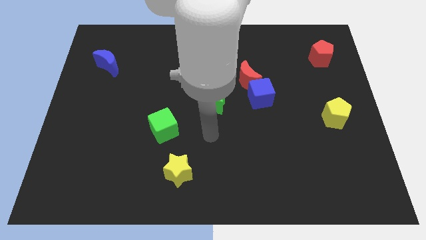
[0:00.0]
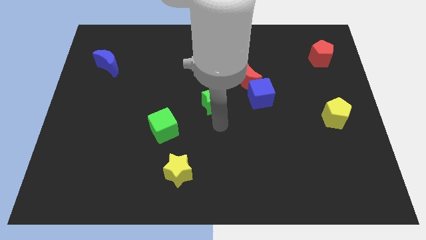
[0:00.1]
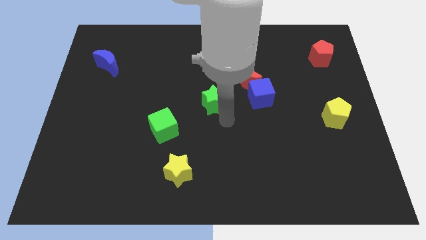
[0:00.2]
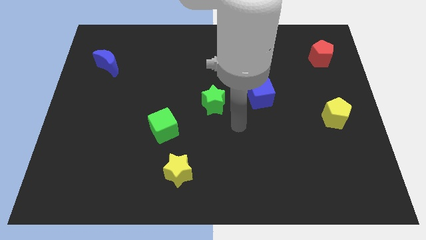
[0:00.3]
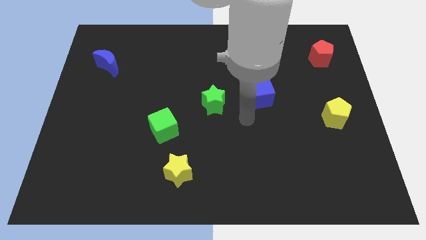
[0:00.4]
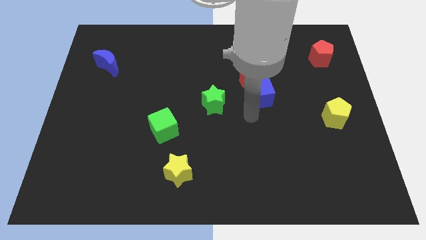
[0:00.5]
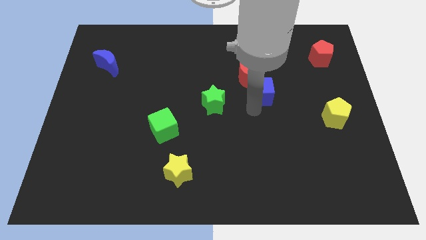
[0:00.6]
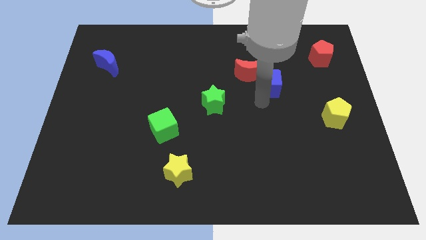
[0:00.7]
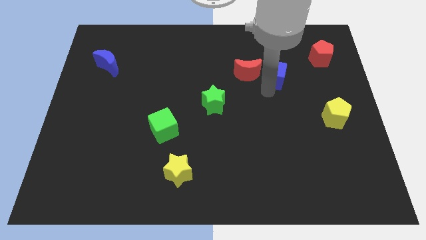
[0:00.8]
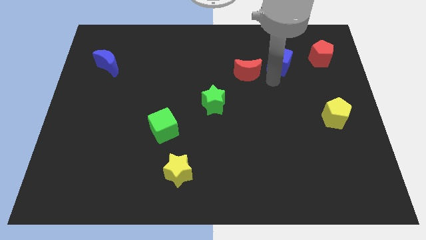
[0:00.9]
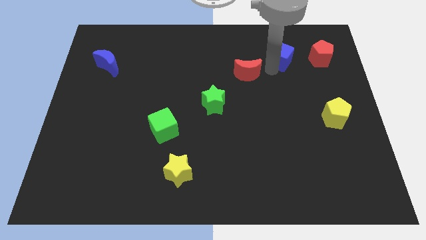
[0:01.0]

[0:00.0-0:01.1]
move the red moon away from the blue cube

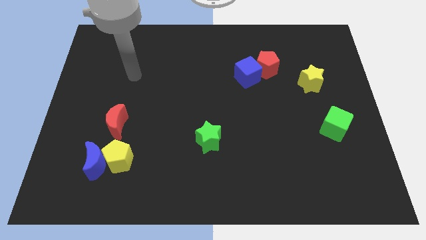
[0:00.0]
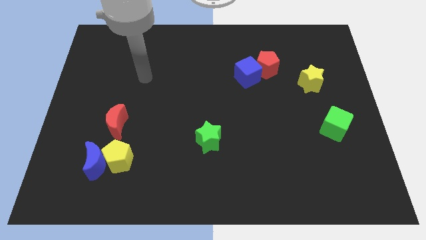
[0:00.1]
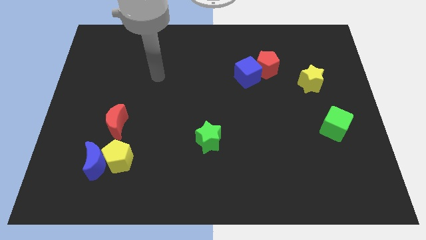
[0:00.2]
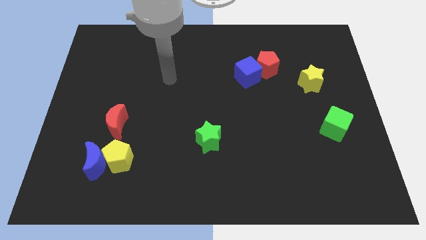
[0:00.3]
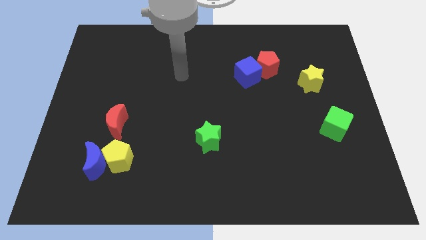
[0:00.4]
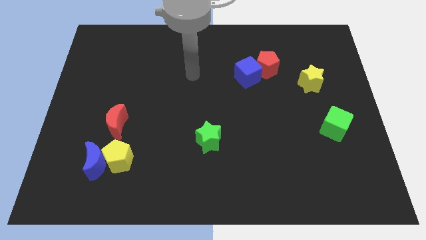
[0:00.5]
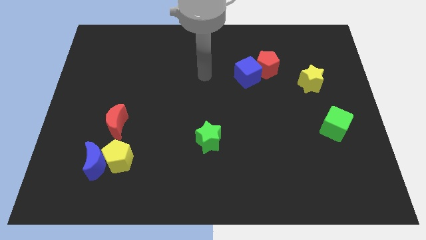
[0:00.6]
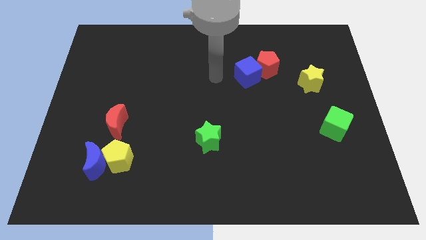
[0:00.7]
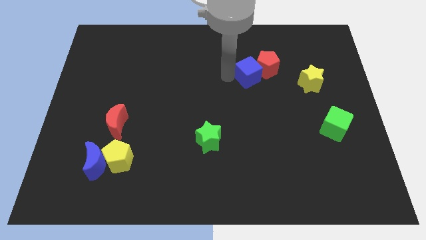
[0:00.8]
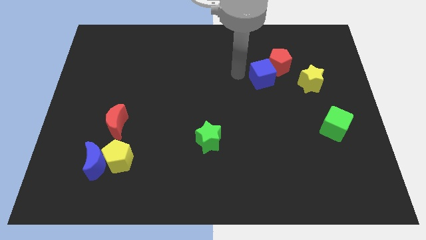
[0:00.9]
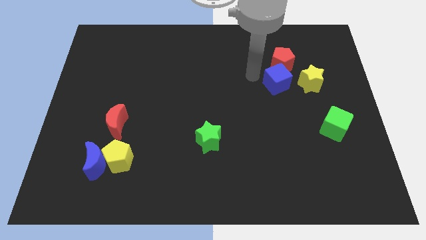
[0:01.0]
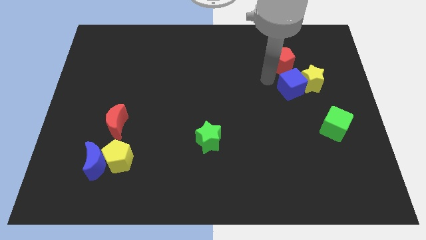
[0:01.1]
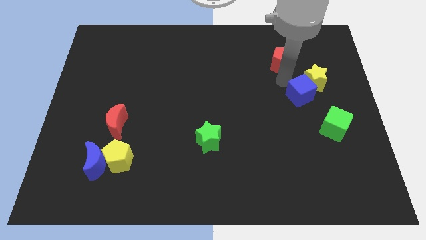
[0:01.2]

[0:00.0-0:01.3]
separate the red pentagon from the blue cube

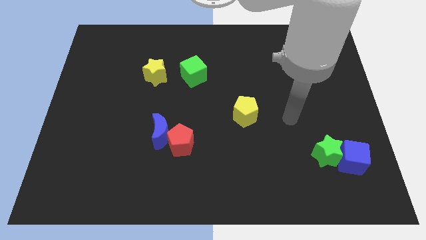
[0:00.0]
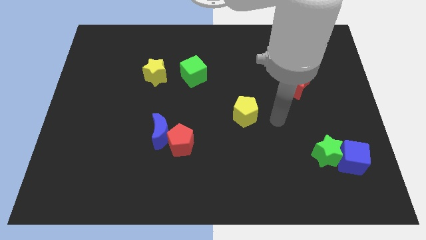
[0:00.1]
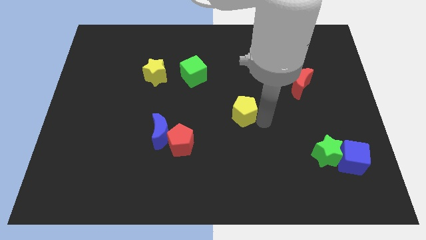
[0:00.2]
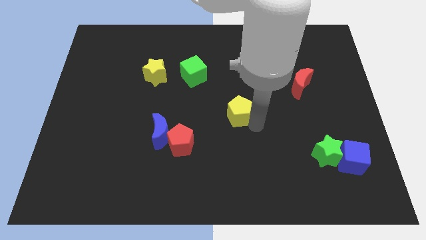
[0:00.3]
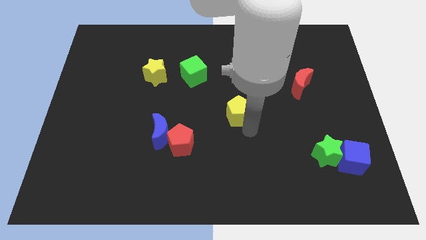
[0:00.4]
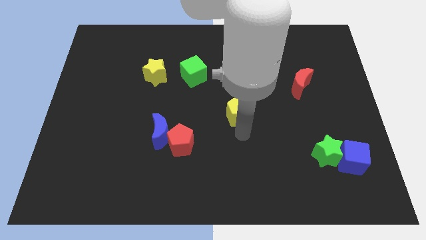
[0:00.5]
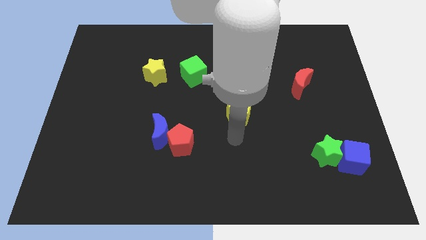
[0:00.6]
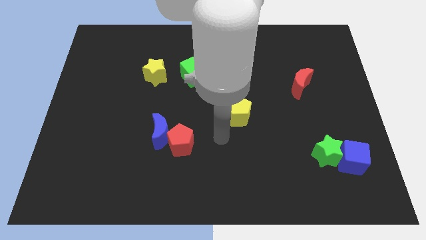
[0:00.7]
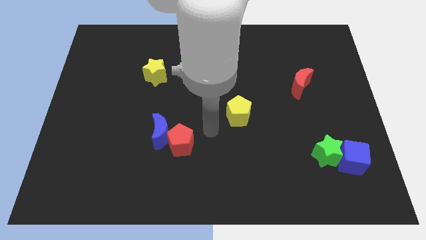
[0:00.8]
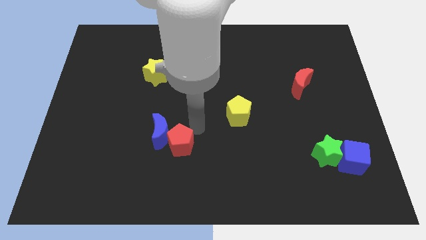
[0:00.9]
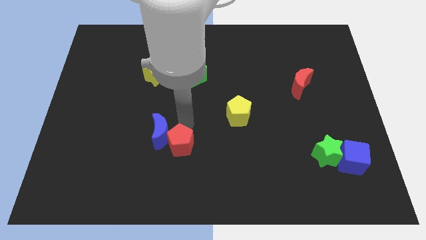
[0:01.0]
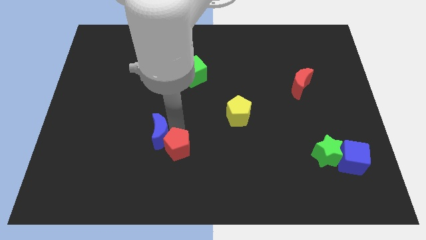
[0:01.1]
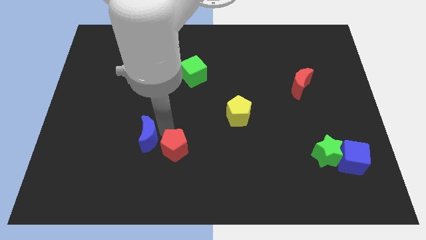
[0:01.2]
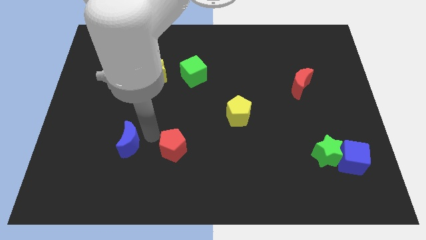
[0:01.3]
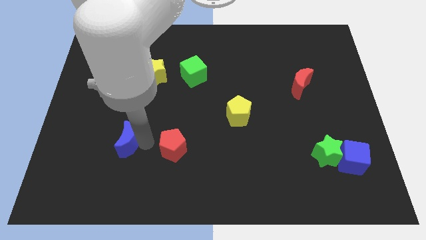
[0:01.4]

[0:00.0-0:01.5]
separate the red pentagon from the blue moon

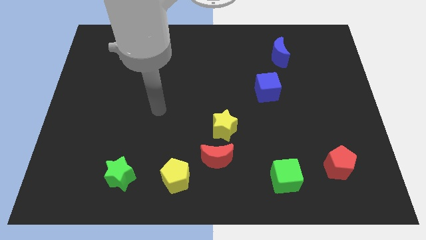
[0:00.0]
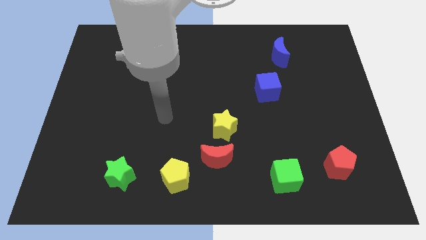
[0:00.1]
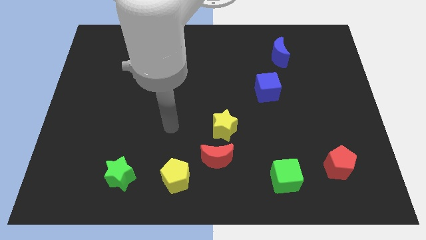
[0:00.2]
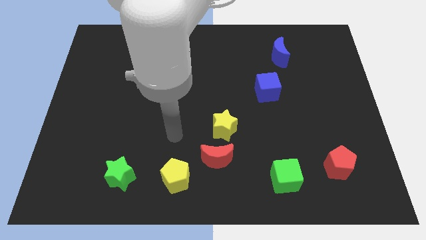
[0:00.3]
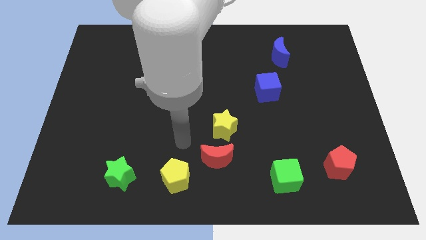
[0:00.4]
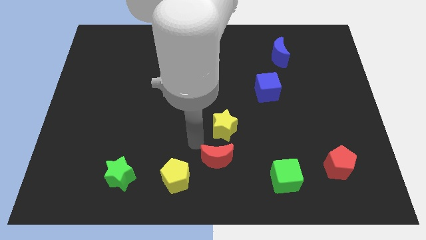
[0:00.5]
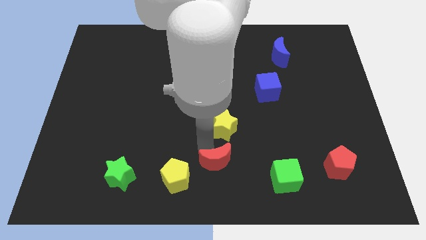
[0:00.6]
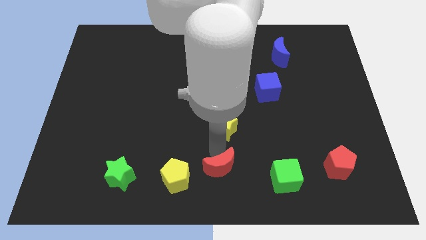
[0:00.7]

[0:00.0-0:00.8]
move the yellow star away from the red moon

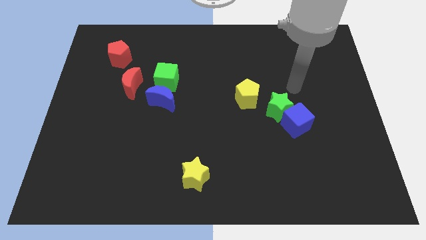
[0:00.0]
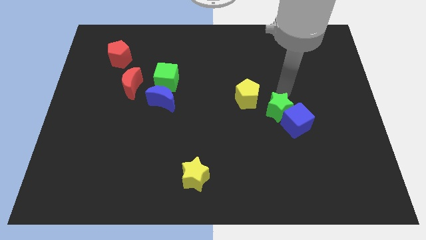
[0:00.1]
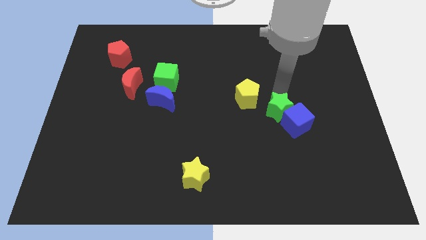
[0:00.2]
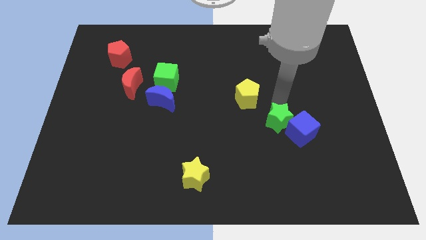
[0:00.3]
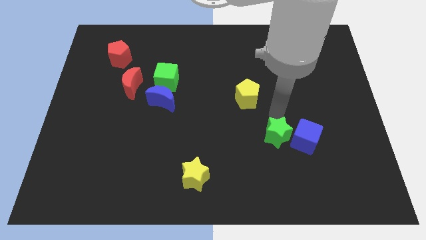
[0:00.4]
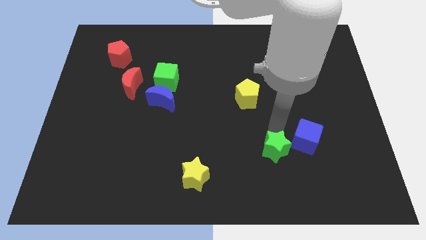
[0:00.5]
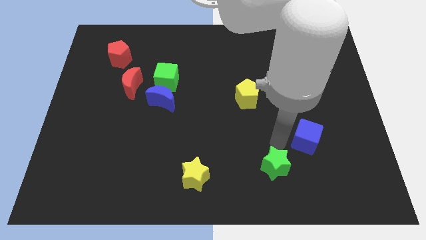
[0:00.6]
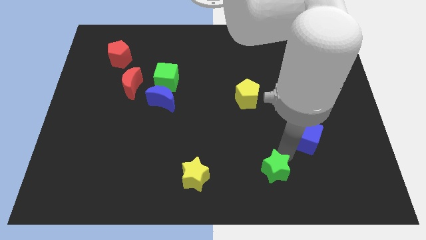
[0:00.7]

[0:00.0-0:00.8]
move the blue cube away from the green star

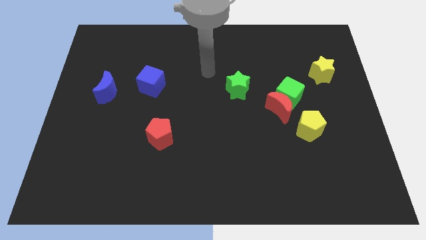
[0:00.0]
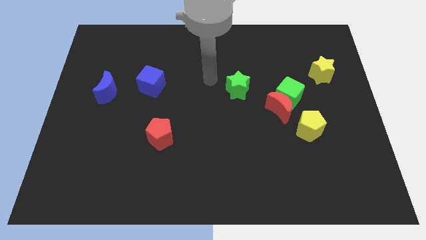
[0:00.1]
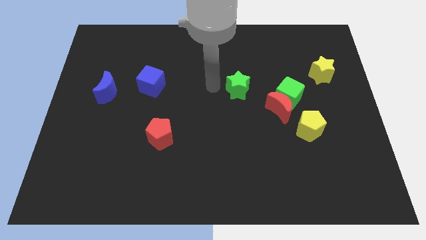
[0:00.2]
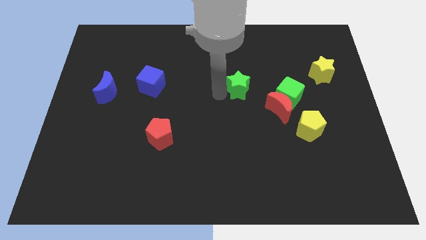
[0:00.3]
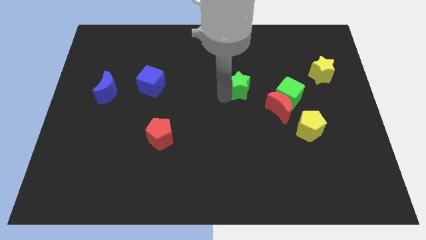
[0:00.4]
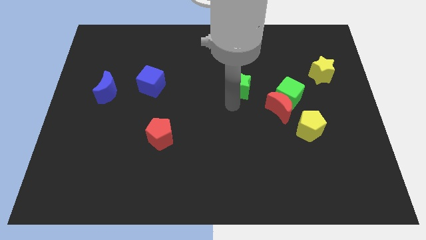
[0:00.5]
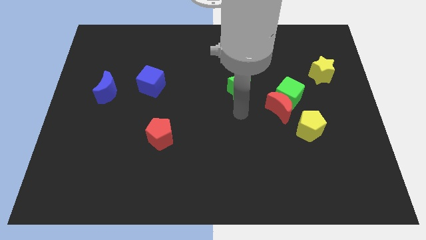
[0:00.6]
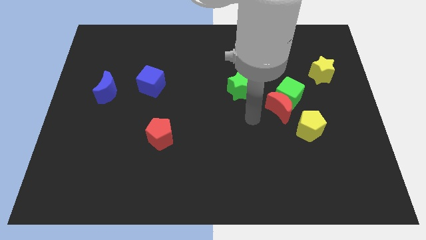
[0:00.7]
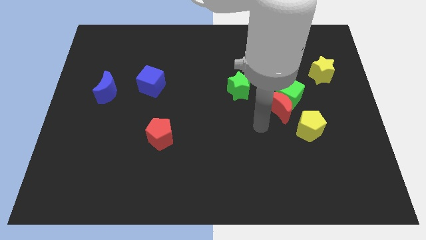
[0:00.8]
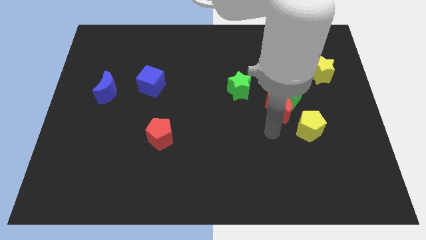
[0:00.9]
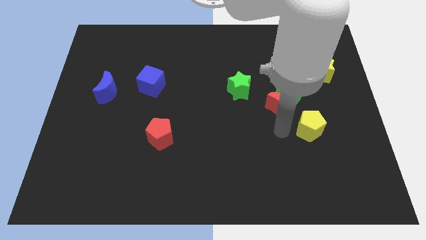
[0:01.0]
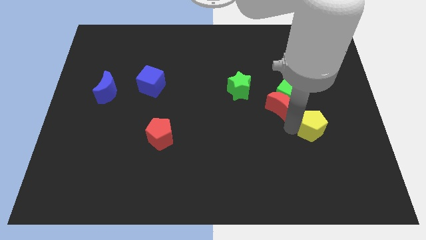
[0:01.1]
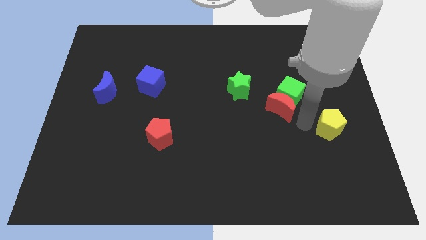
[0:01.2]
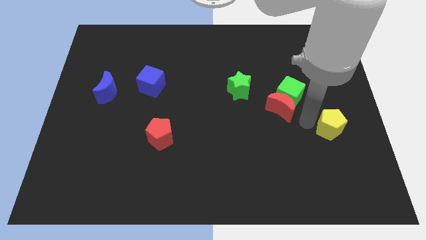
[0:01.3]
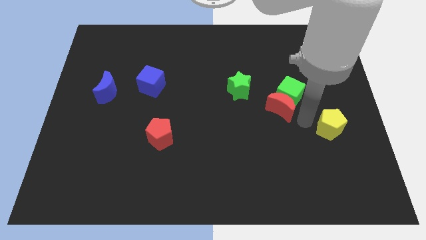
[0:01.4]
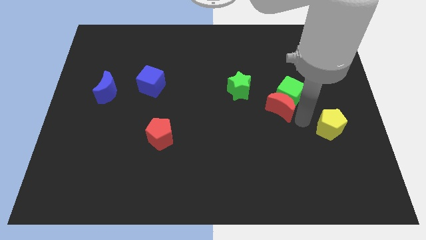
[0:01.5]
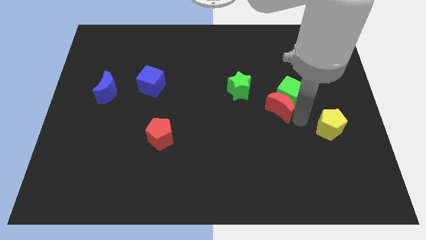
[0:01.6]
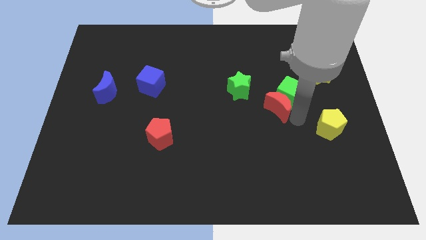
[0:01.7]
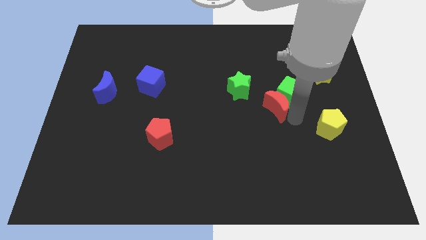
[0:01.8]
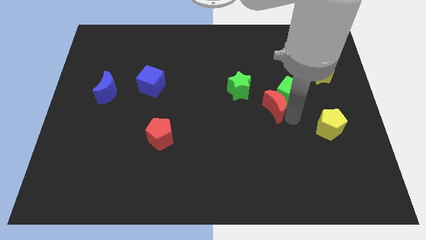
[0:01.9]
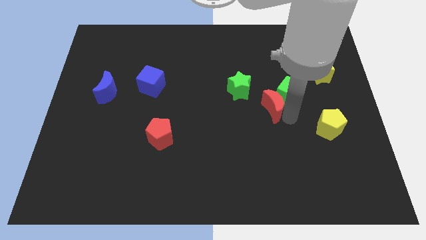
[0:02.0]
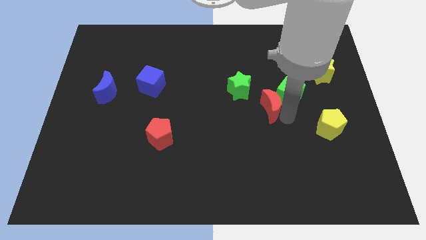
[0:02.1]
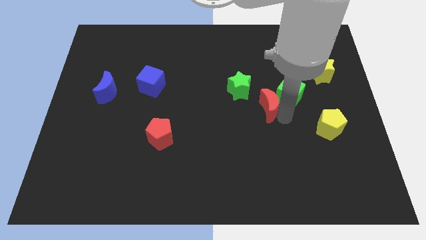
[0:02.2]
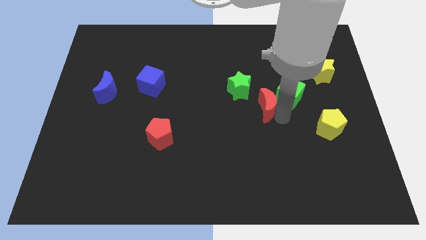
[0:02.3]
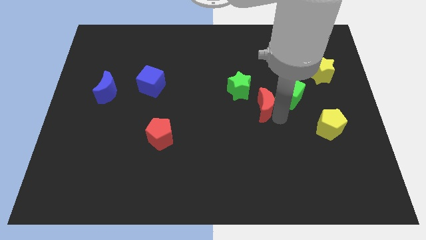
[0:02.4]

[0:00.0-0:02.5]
pull the red moon apart from the green cube and yellow pentagon

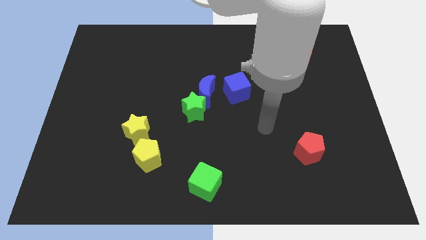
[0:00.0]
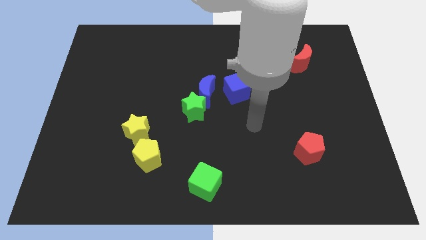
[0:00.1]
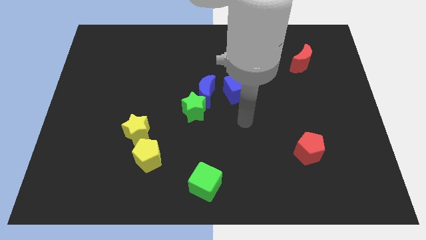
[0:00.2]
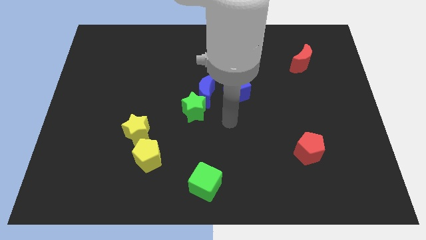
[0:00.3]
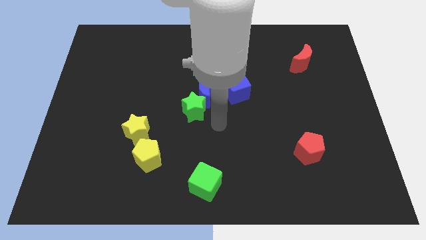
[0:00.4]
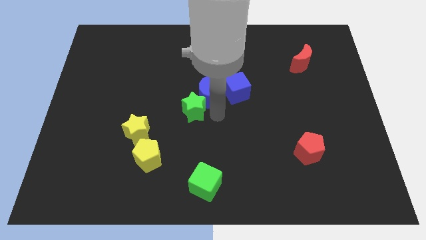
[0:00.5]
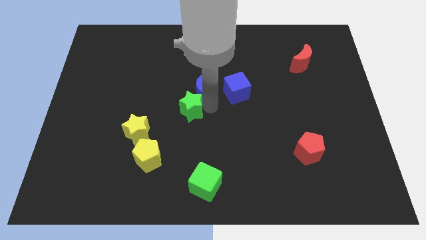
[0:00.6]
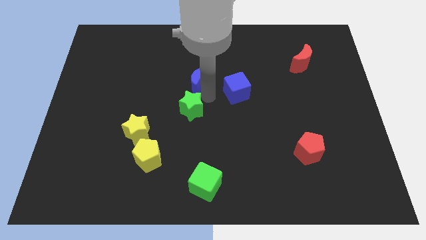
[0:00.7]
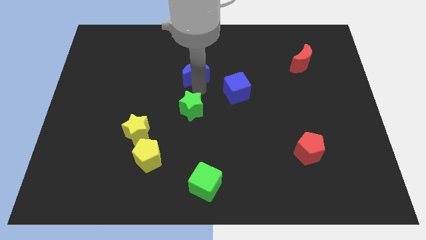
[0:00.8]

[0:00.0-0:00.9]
pull the green star apart from the blue moon

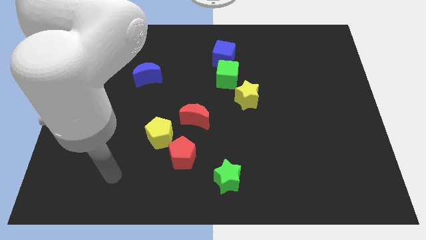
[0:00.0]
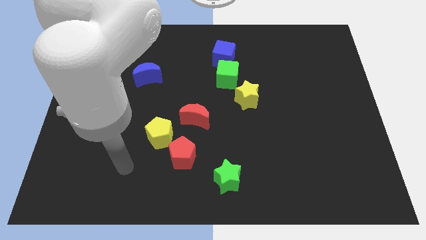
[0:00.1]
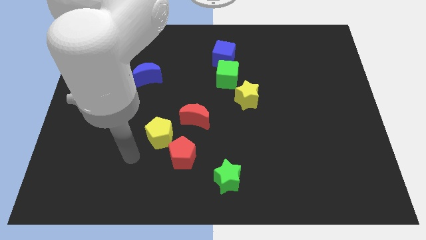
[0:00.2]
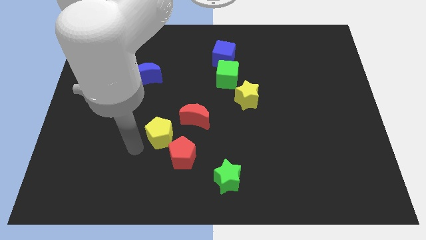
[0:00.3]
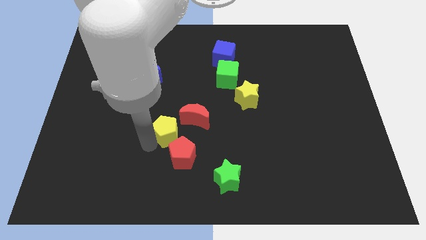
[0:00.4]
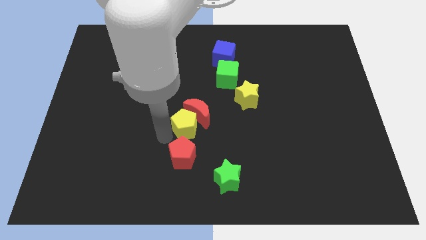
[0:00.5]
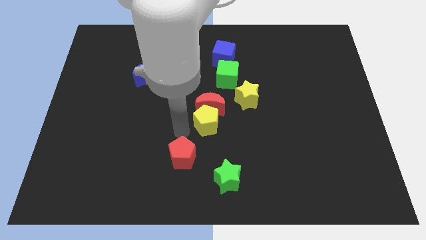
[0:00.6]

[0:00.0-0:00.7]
move the red pentagon away from the yellow pentagon
